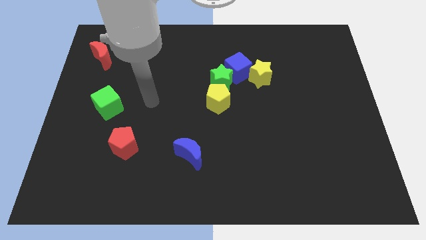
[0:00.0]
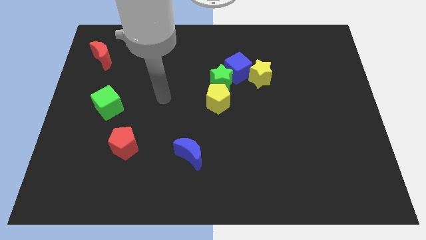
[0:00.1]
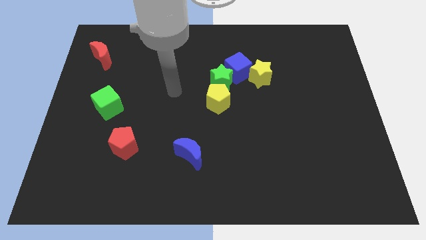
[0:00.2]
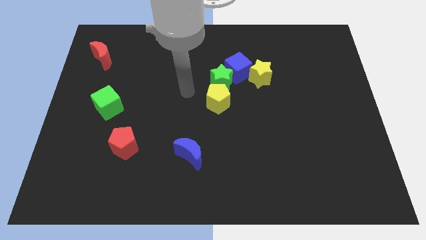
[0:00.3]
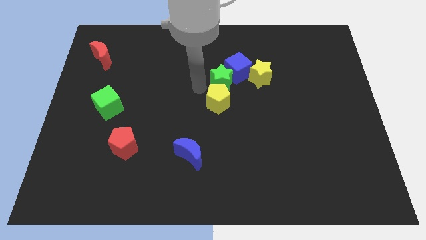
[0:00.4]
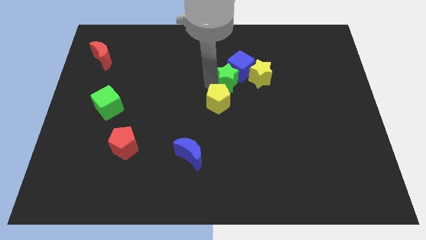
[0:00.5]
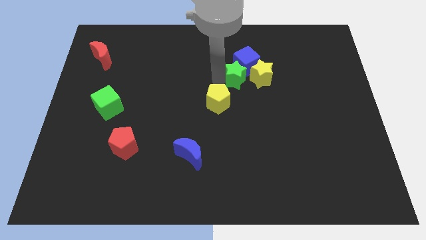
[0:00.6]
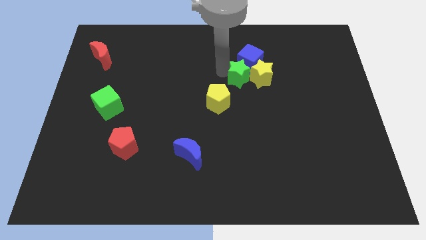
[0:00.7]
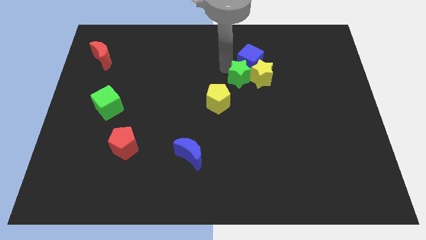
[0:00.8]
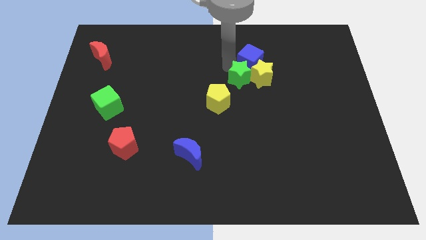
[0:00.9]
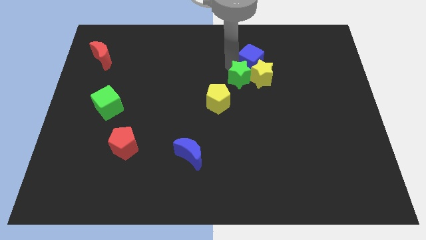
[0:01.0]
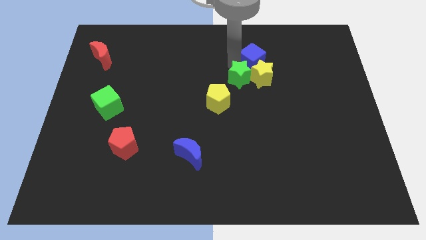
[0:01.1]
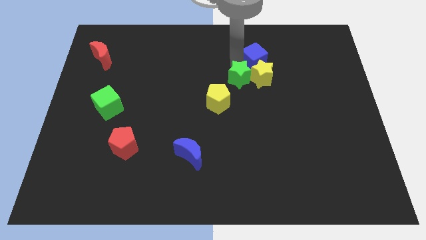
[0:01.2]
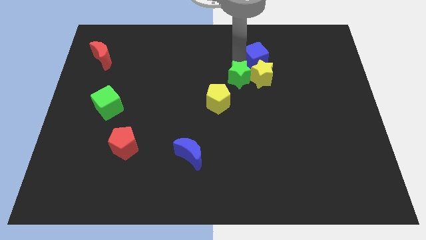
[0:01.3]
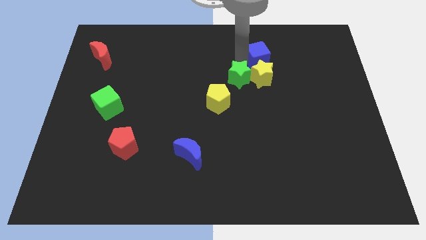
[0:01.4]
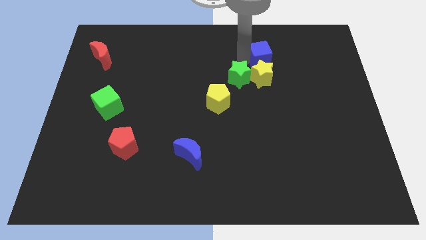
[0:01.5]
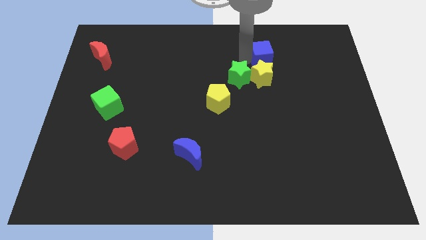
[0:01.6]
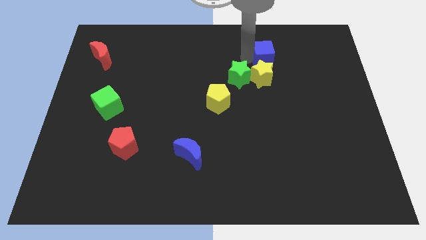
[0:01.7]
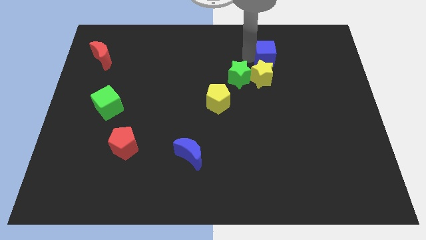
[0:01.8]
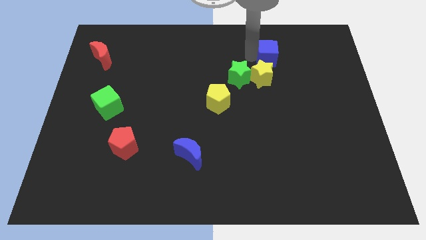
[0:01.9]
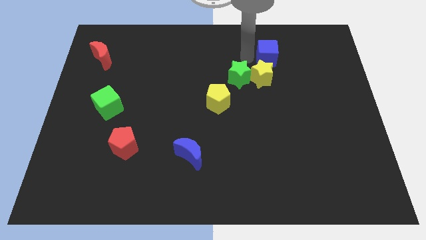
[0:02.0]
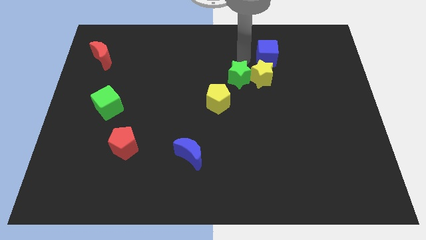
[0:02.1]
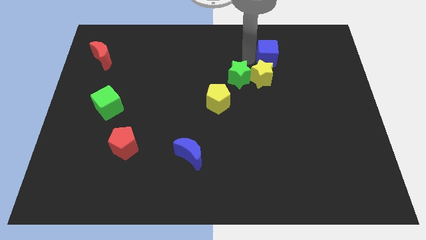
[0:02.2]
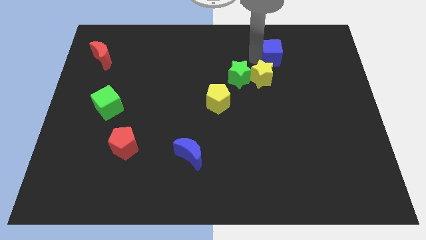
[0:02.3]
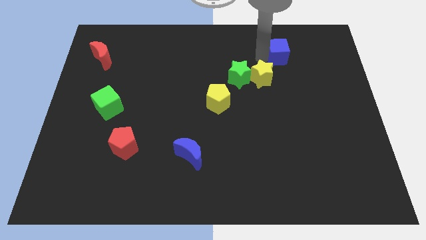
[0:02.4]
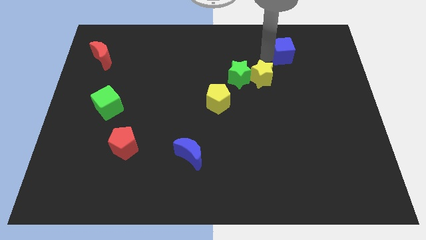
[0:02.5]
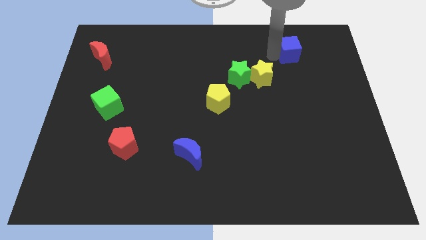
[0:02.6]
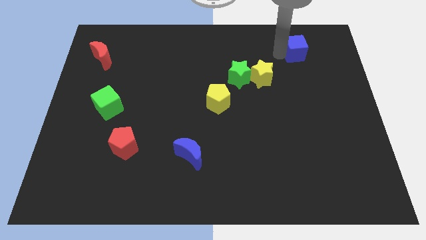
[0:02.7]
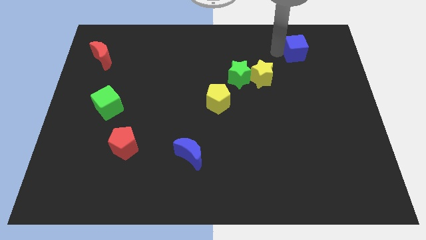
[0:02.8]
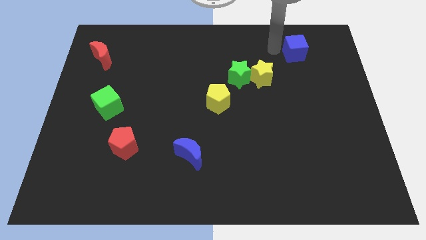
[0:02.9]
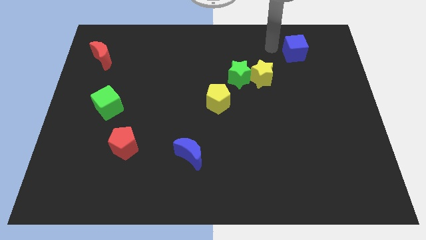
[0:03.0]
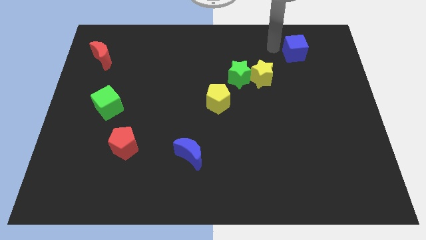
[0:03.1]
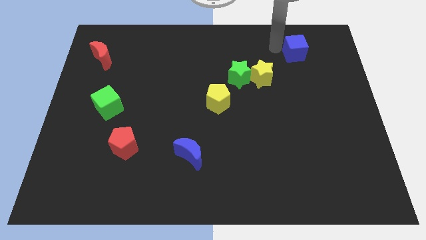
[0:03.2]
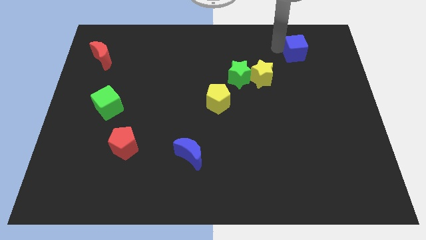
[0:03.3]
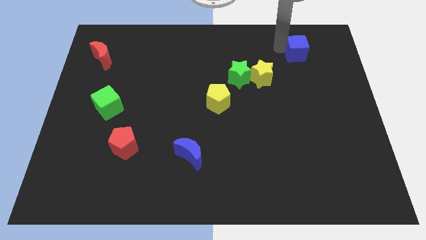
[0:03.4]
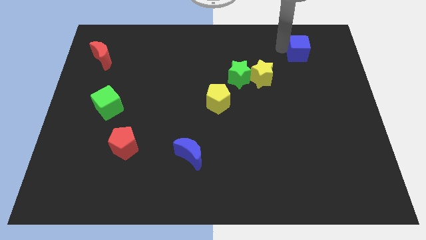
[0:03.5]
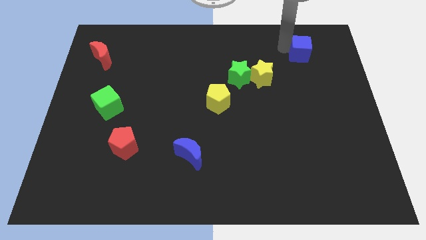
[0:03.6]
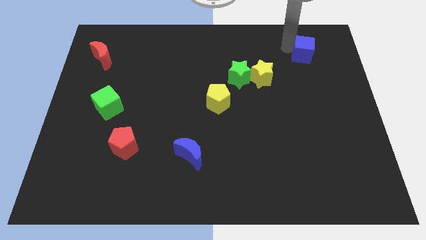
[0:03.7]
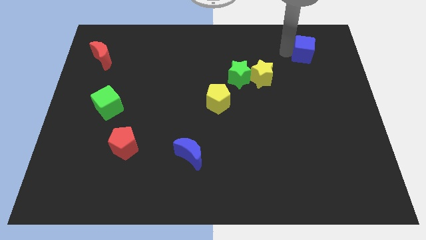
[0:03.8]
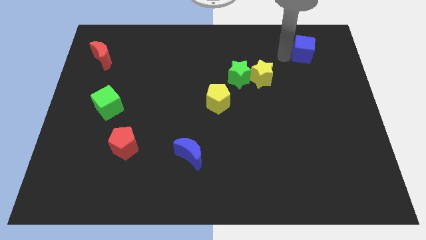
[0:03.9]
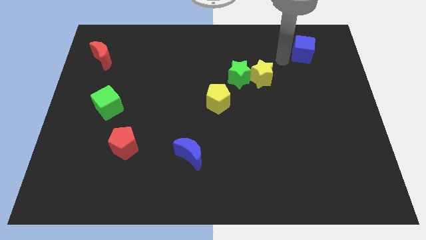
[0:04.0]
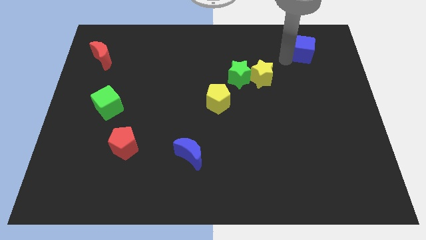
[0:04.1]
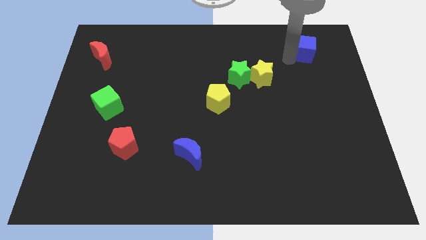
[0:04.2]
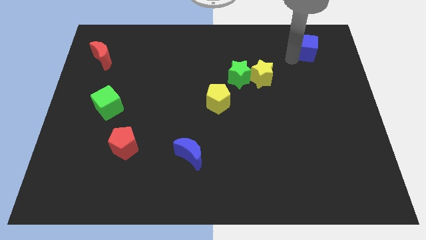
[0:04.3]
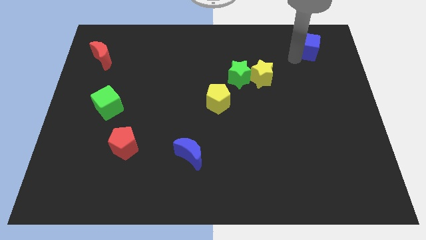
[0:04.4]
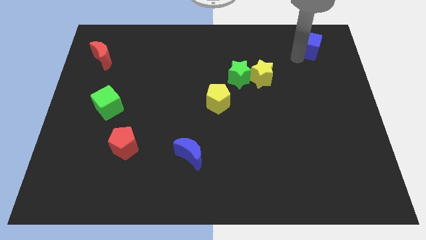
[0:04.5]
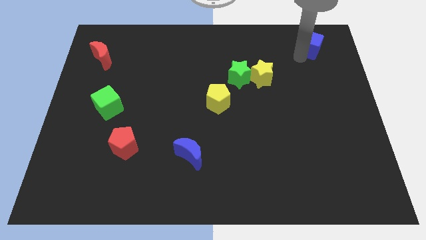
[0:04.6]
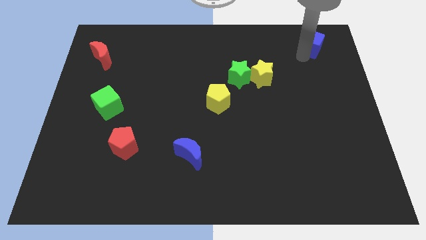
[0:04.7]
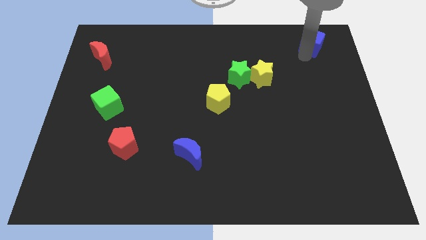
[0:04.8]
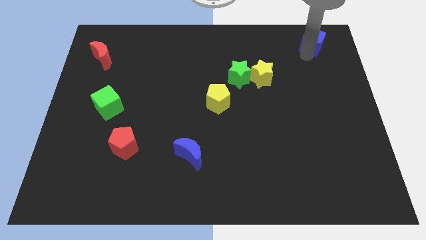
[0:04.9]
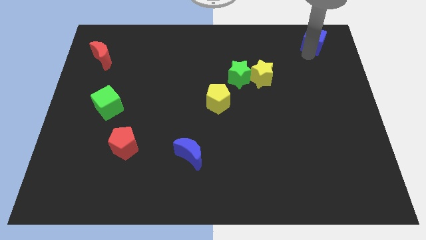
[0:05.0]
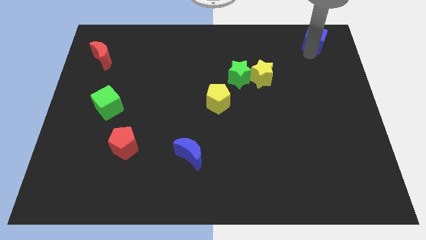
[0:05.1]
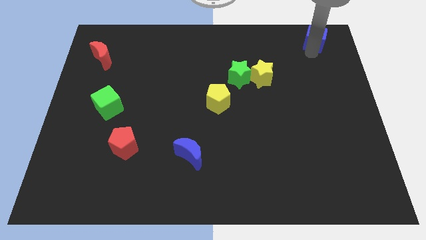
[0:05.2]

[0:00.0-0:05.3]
slide the blue cube to the top right
